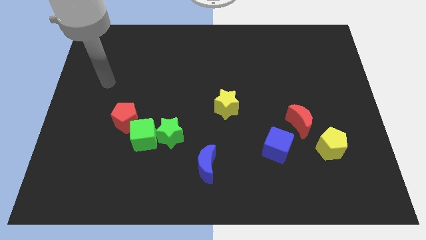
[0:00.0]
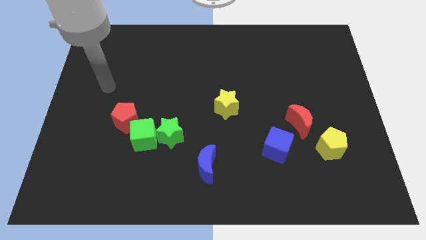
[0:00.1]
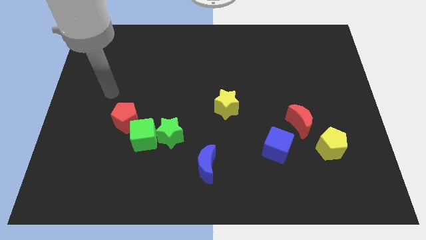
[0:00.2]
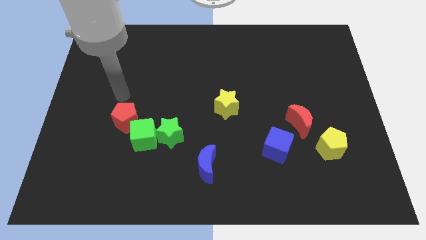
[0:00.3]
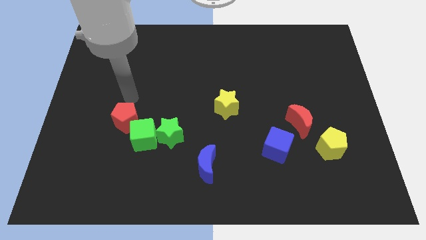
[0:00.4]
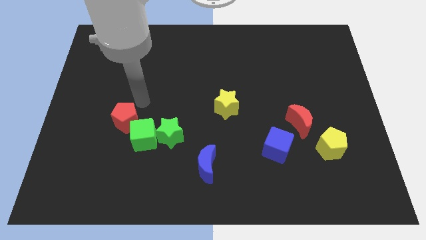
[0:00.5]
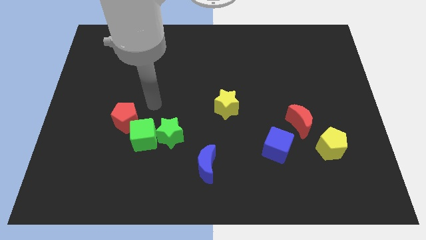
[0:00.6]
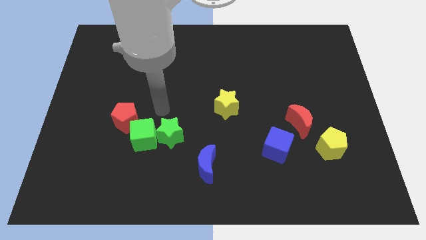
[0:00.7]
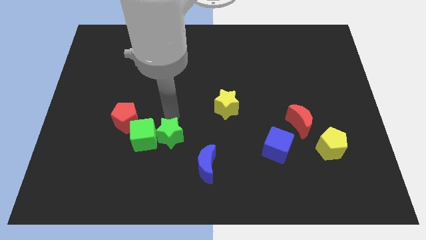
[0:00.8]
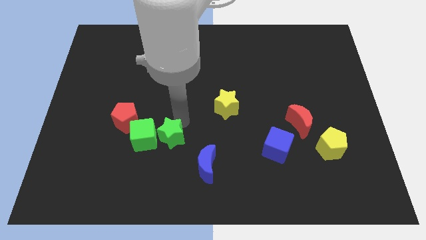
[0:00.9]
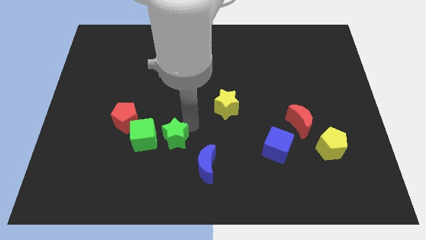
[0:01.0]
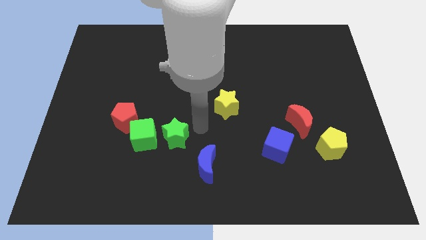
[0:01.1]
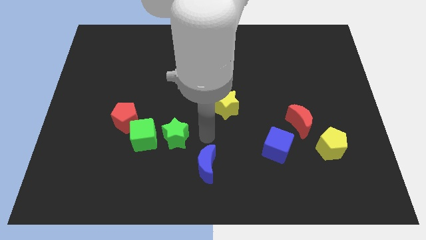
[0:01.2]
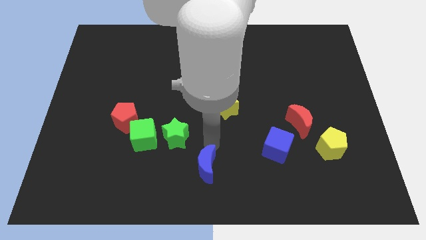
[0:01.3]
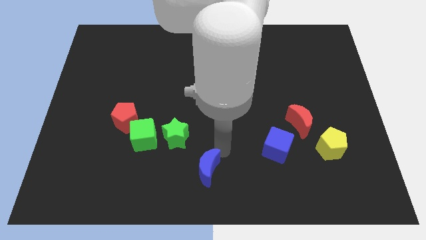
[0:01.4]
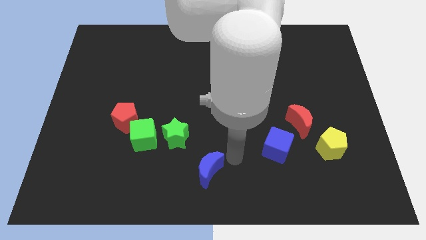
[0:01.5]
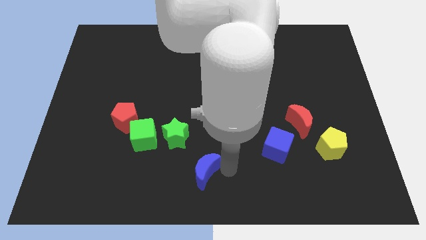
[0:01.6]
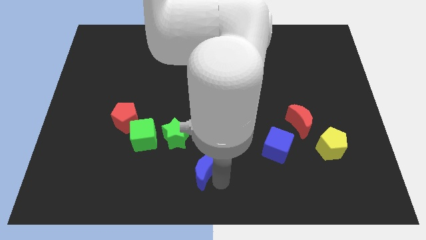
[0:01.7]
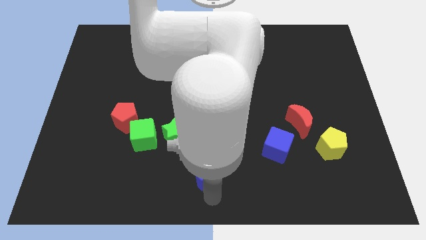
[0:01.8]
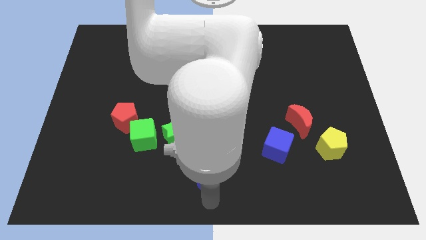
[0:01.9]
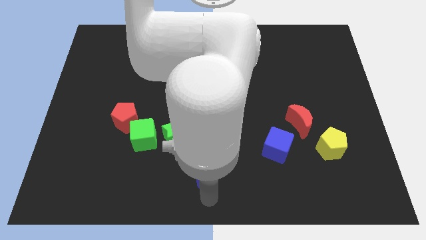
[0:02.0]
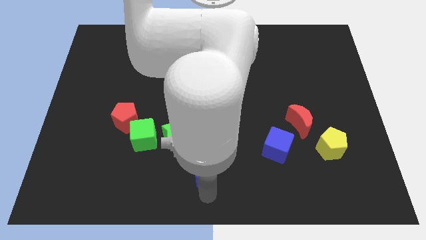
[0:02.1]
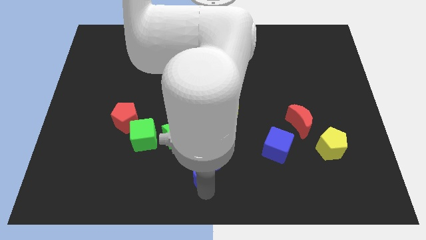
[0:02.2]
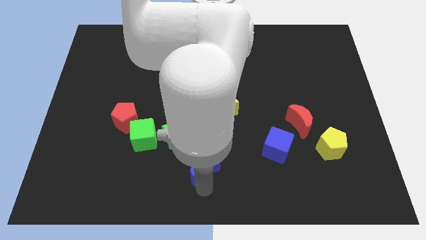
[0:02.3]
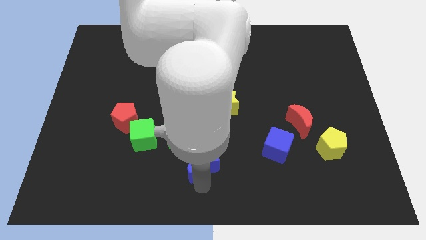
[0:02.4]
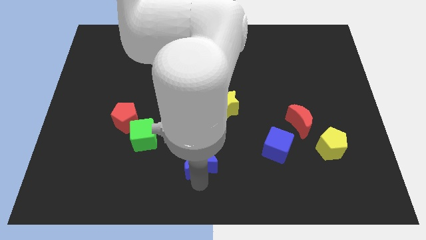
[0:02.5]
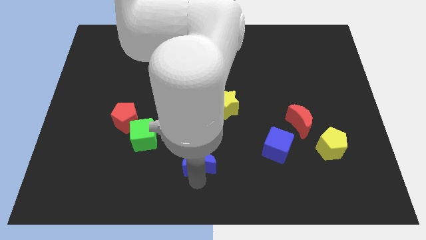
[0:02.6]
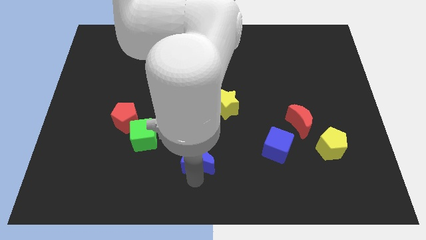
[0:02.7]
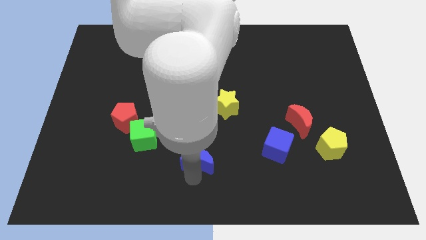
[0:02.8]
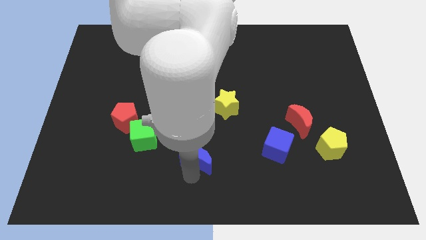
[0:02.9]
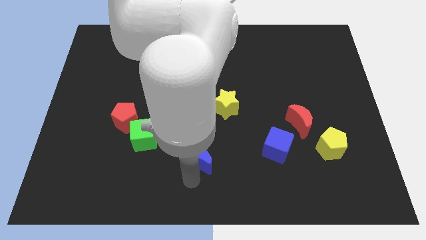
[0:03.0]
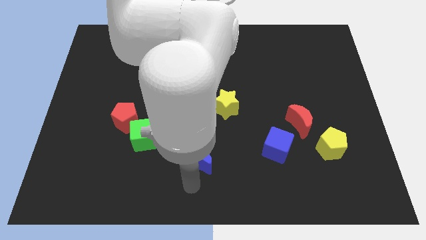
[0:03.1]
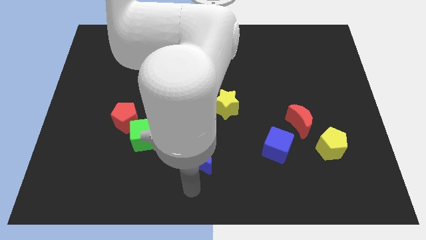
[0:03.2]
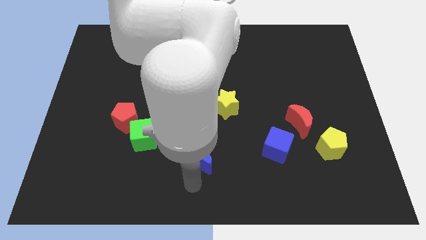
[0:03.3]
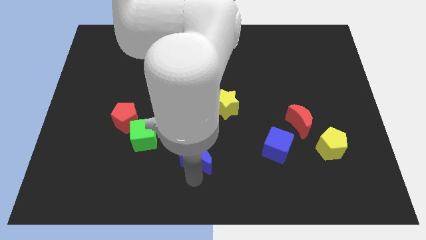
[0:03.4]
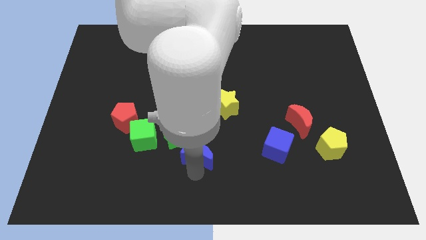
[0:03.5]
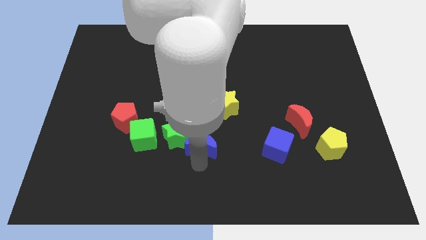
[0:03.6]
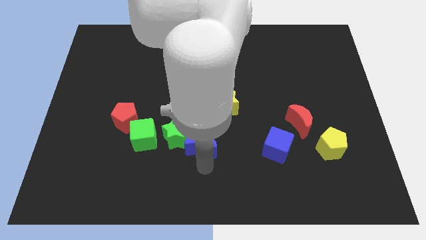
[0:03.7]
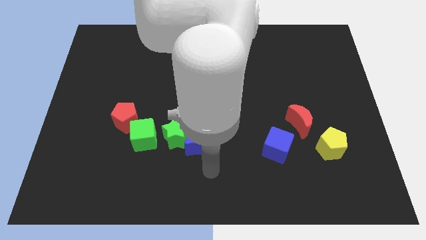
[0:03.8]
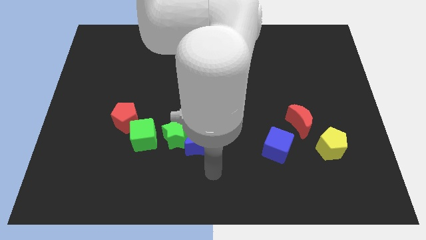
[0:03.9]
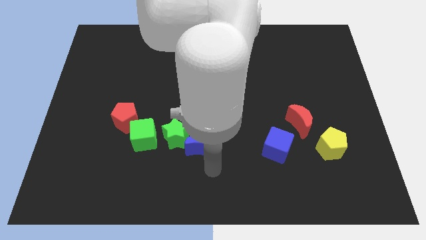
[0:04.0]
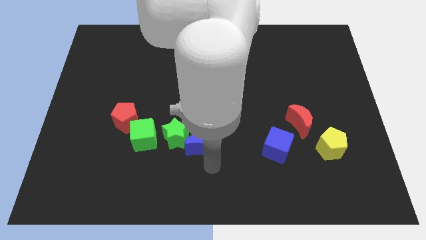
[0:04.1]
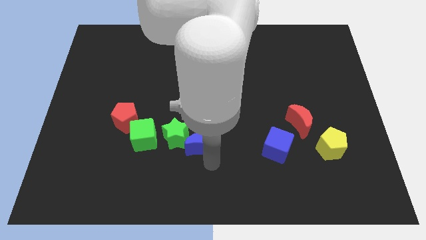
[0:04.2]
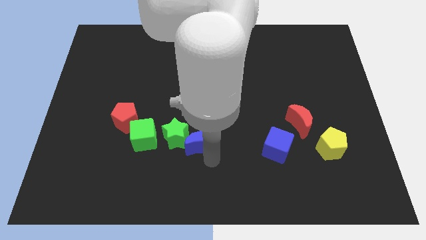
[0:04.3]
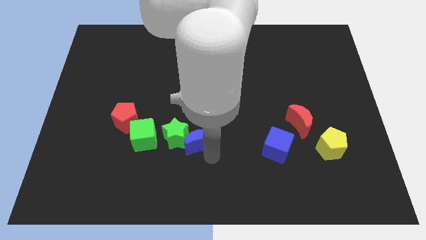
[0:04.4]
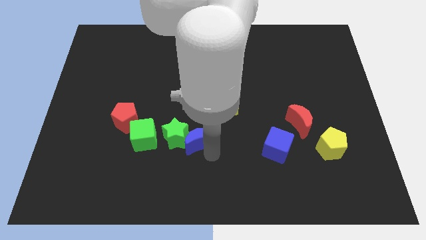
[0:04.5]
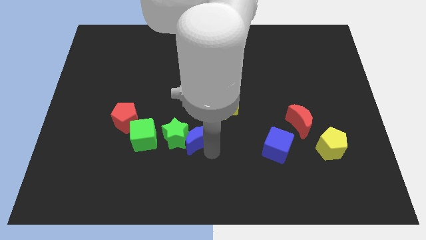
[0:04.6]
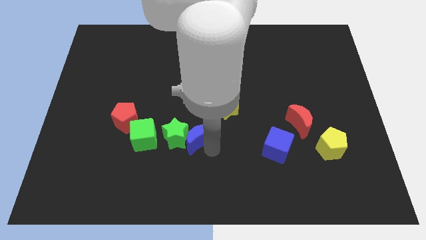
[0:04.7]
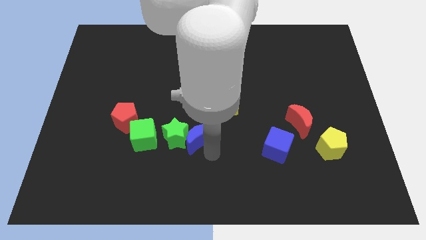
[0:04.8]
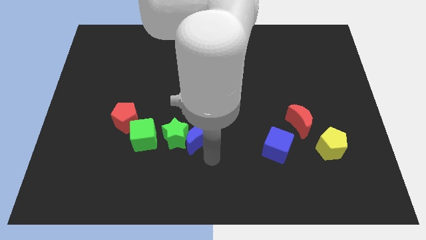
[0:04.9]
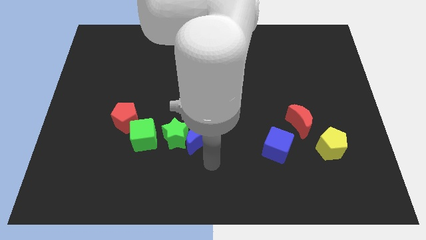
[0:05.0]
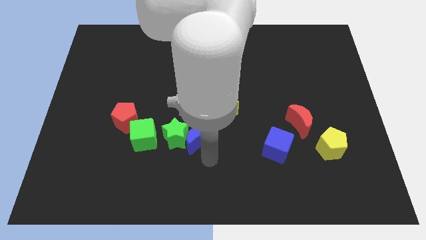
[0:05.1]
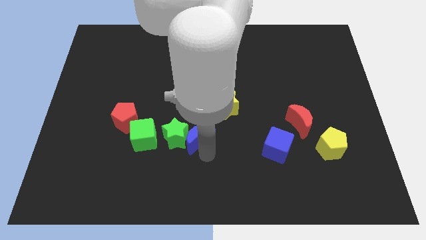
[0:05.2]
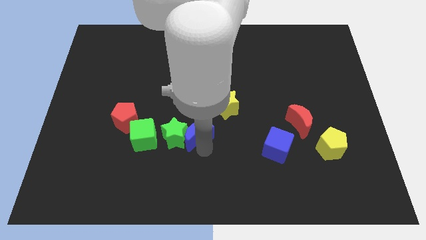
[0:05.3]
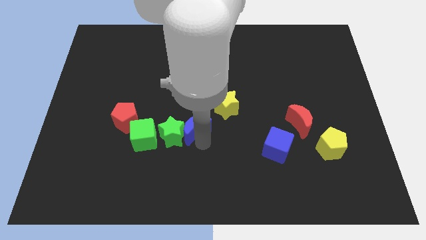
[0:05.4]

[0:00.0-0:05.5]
slightly push the blue moon upwards and left diagonally

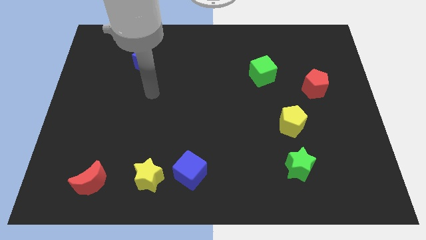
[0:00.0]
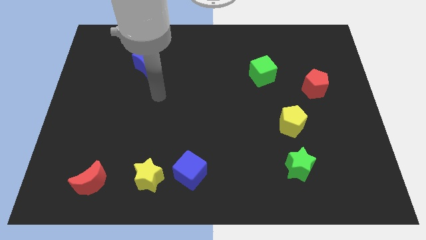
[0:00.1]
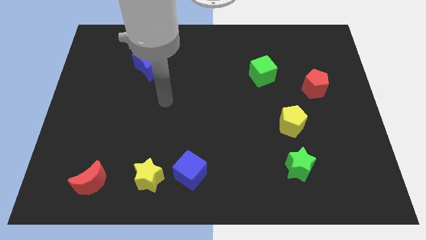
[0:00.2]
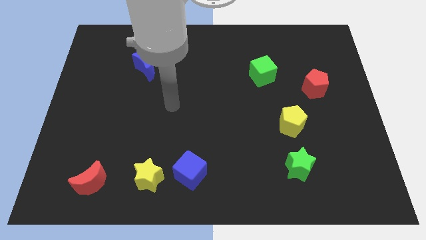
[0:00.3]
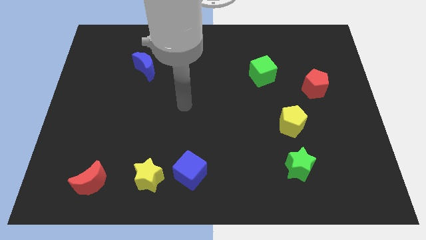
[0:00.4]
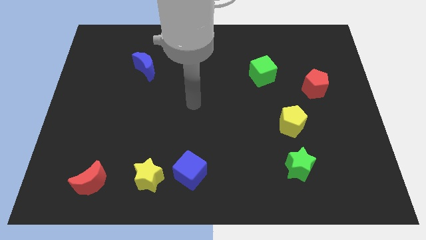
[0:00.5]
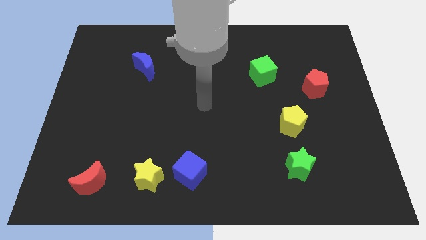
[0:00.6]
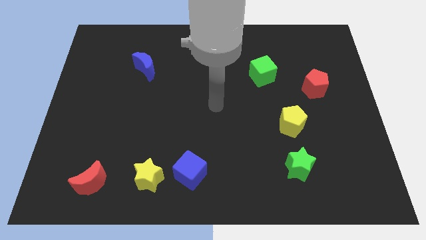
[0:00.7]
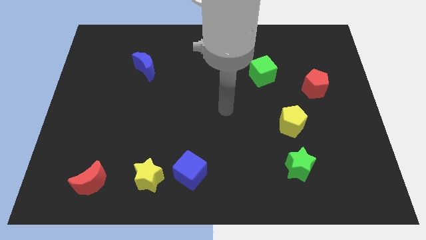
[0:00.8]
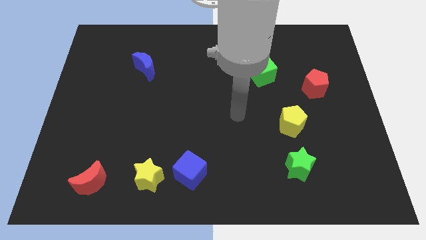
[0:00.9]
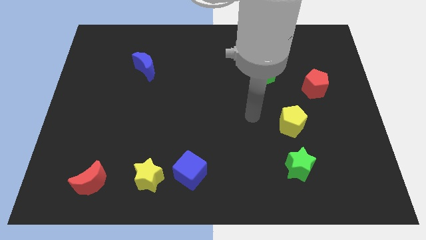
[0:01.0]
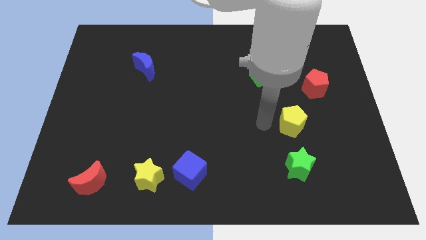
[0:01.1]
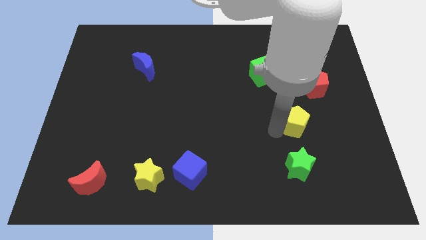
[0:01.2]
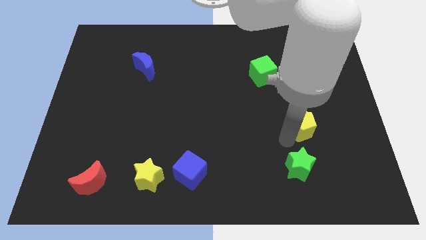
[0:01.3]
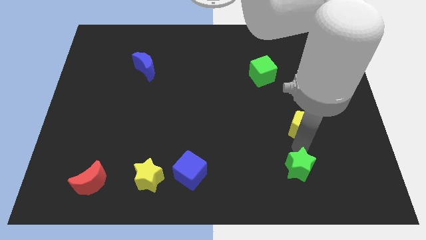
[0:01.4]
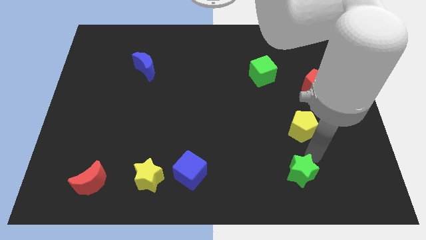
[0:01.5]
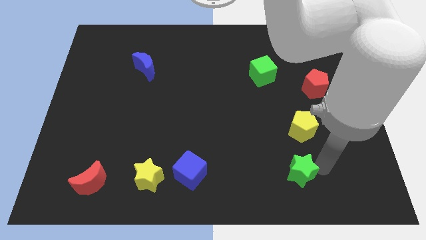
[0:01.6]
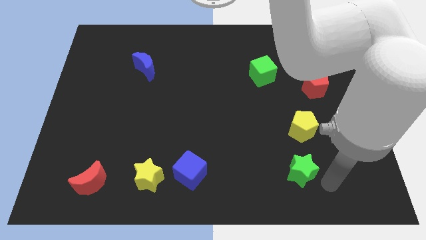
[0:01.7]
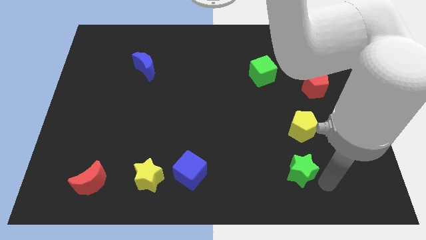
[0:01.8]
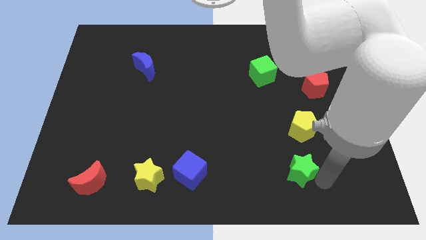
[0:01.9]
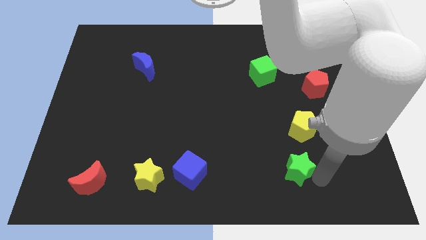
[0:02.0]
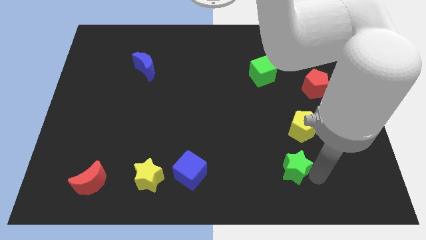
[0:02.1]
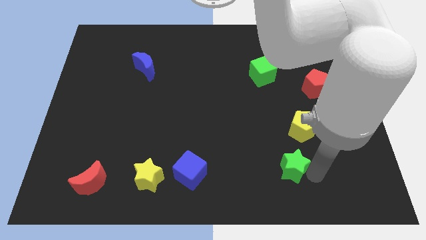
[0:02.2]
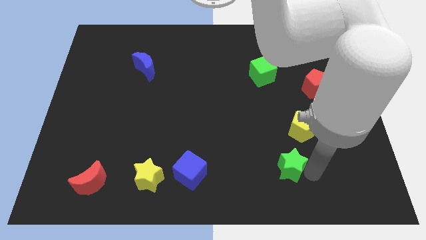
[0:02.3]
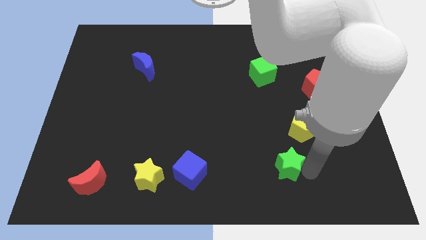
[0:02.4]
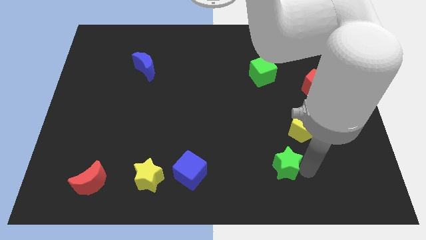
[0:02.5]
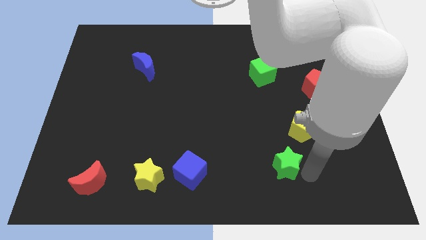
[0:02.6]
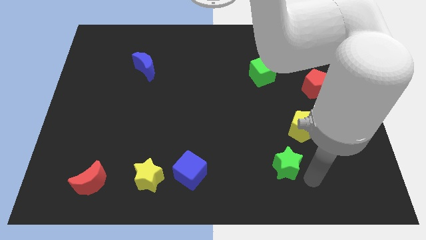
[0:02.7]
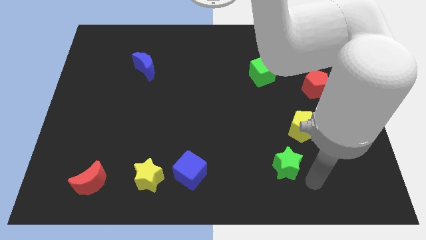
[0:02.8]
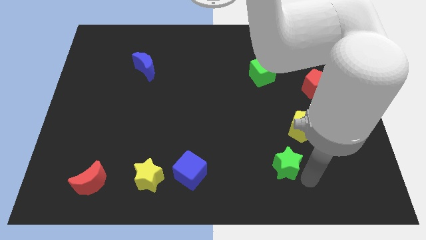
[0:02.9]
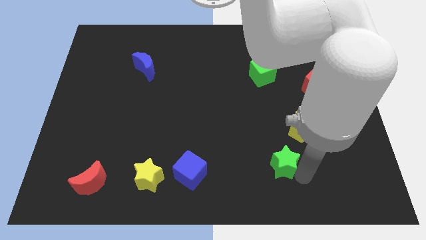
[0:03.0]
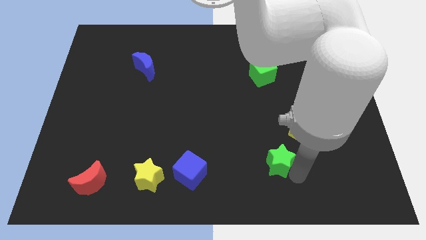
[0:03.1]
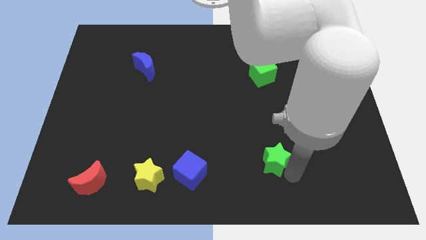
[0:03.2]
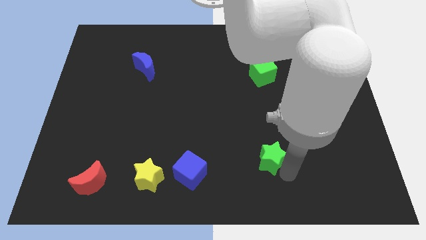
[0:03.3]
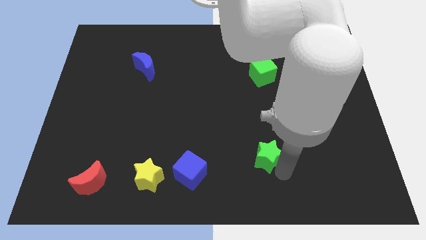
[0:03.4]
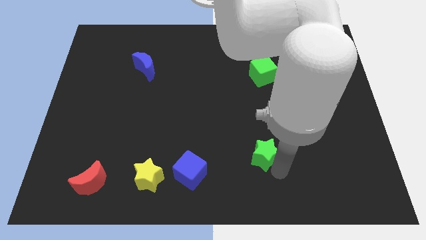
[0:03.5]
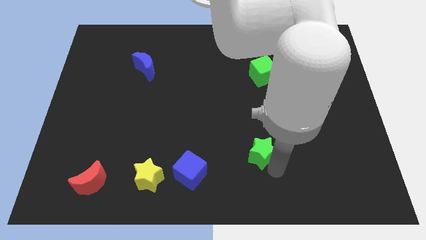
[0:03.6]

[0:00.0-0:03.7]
slightly slide the green star up and then left
